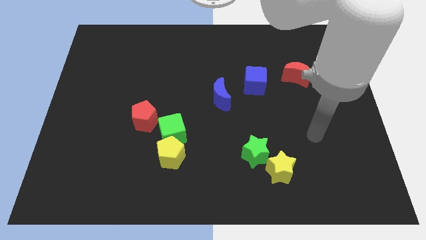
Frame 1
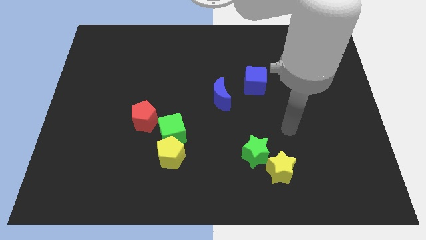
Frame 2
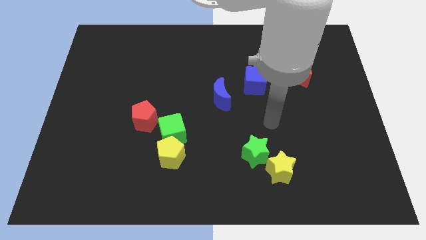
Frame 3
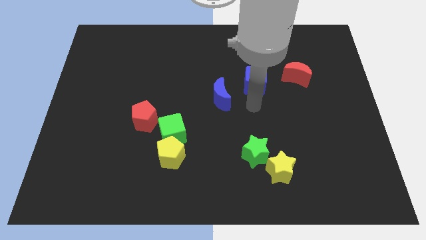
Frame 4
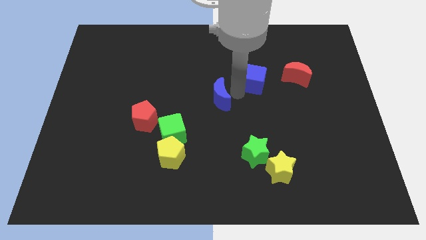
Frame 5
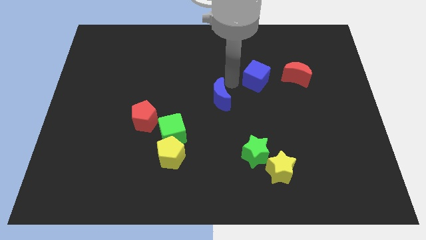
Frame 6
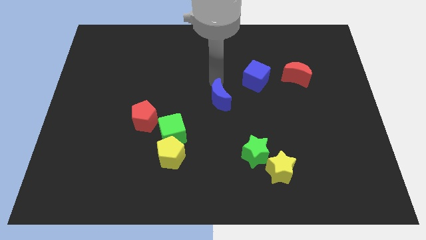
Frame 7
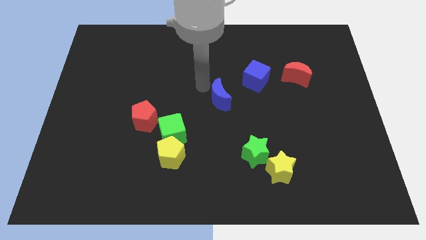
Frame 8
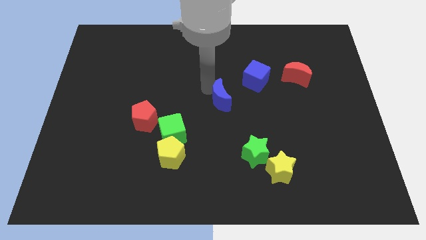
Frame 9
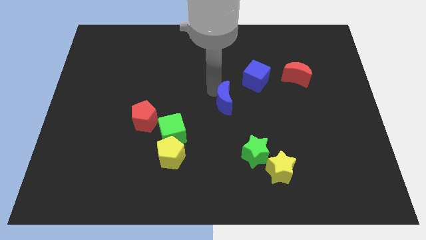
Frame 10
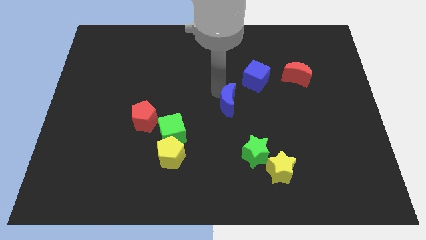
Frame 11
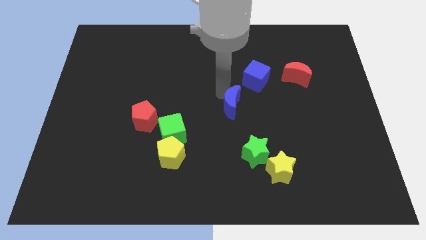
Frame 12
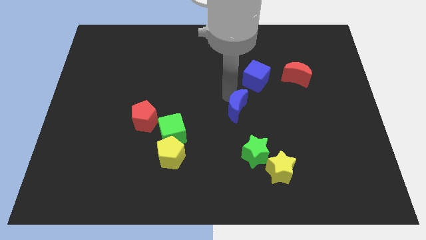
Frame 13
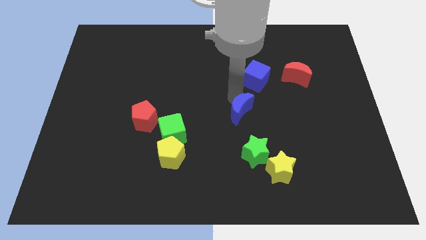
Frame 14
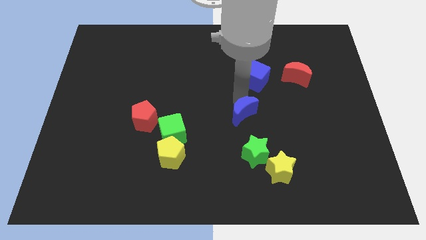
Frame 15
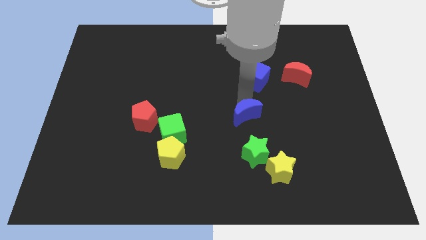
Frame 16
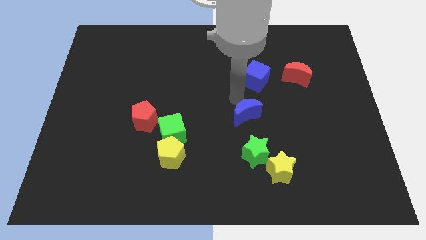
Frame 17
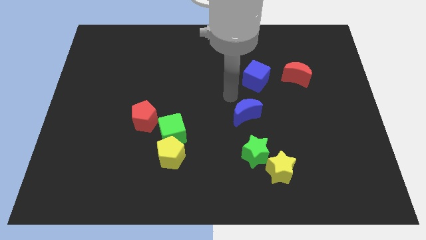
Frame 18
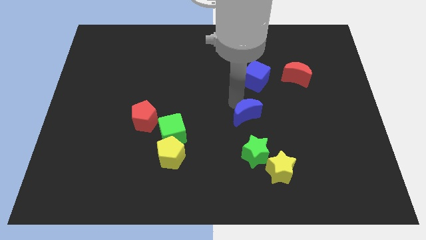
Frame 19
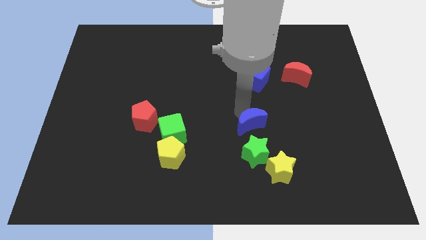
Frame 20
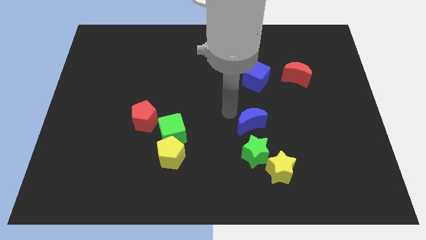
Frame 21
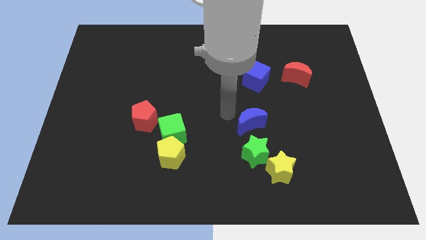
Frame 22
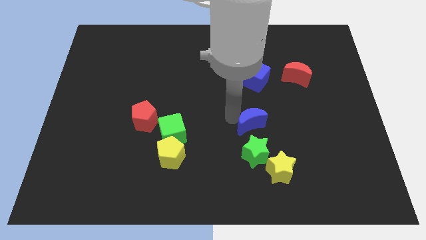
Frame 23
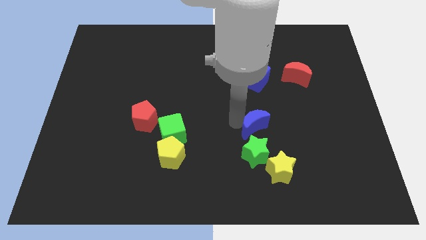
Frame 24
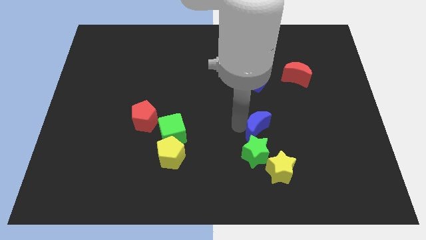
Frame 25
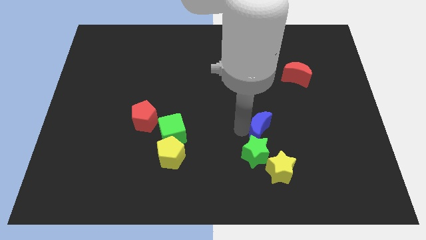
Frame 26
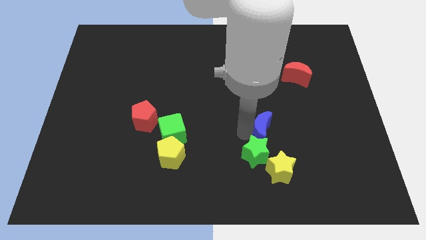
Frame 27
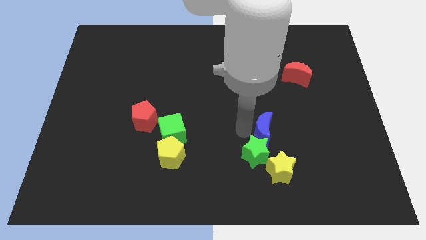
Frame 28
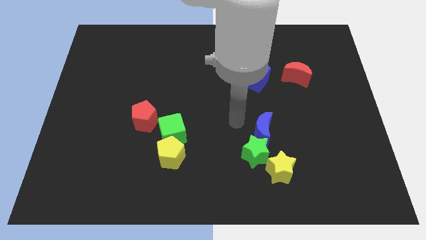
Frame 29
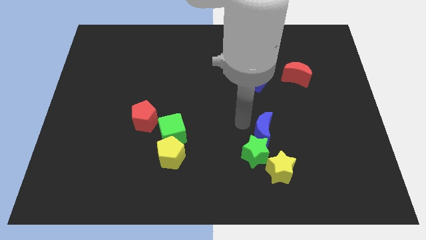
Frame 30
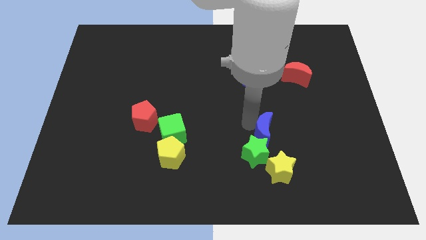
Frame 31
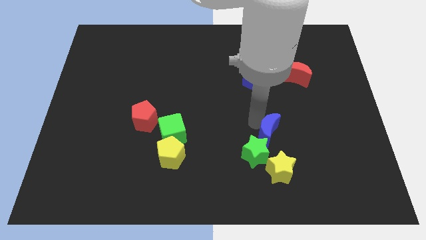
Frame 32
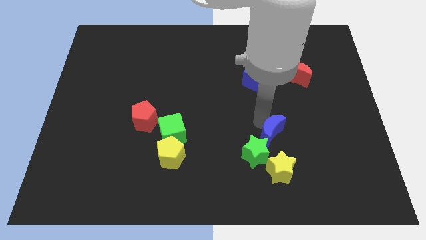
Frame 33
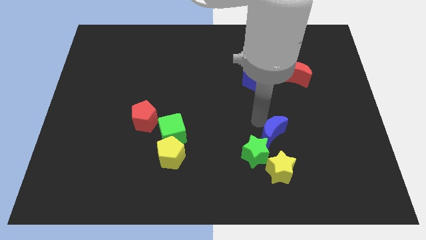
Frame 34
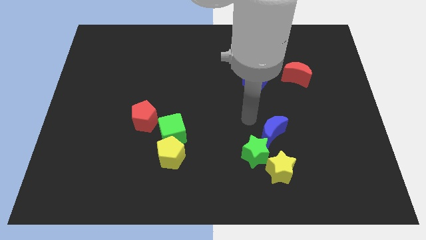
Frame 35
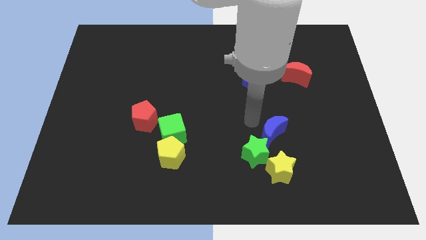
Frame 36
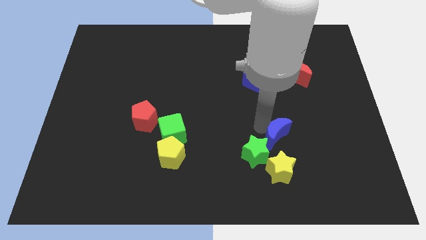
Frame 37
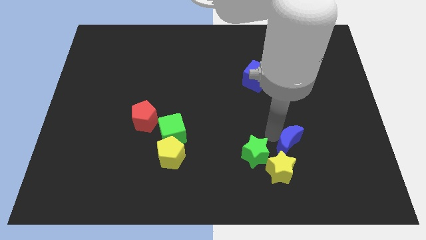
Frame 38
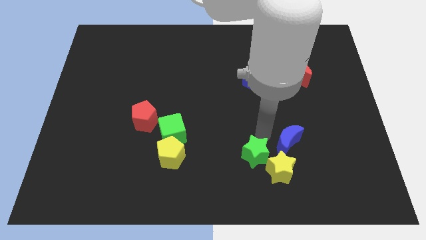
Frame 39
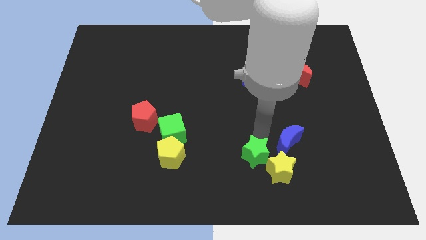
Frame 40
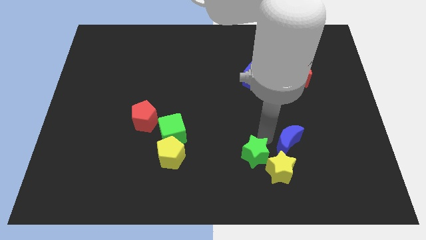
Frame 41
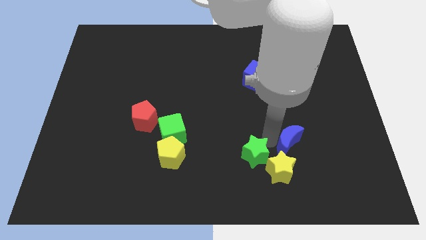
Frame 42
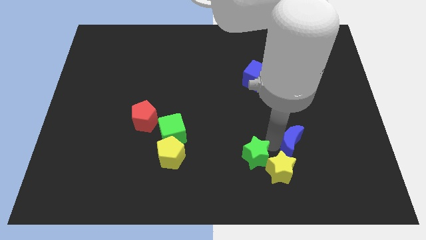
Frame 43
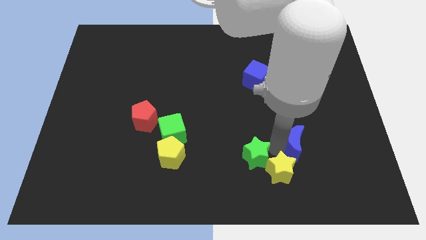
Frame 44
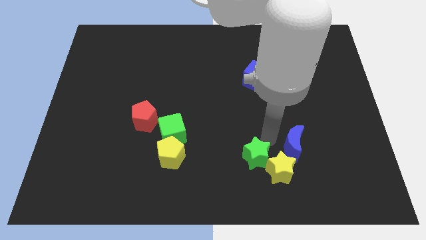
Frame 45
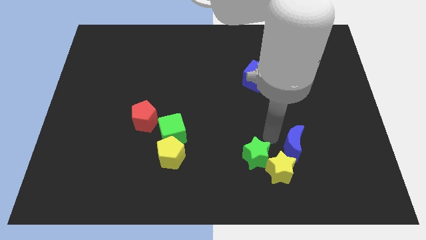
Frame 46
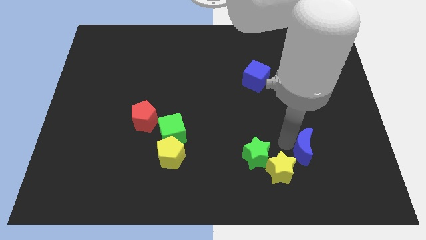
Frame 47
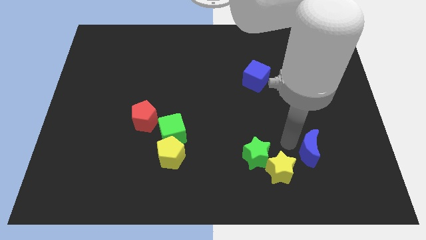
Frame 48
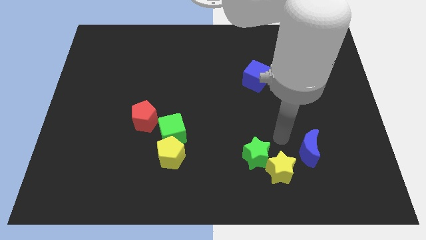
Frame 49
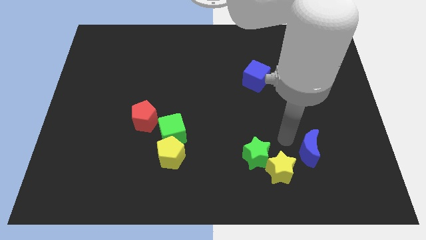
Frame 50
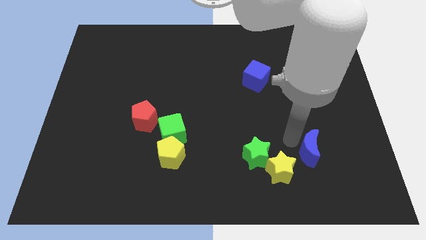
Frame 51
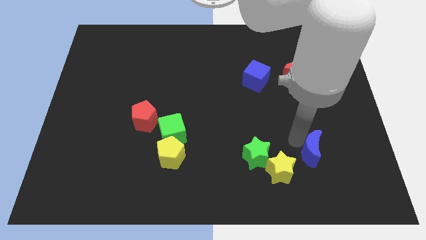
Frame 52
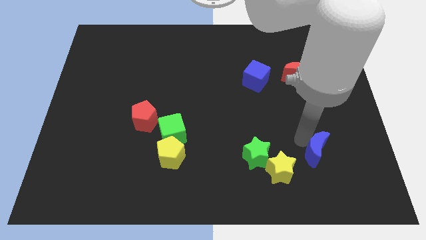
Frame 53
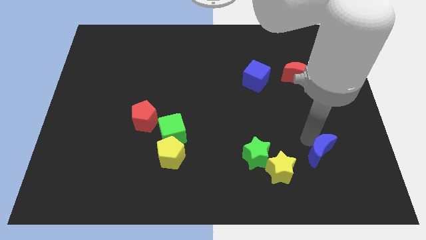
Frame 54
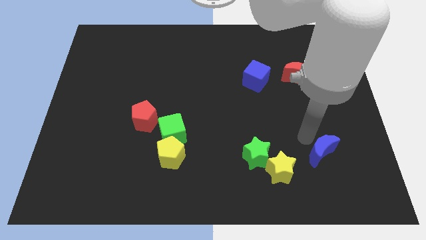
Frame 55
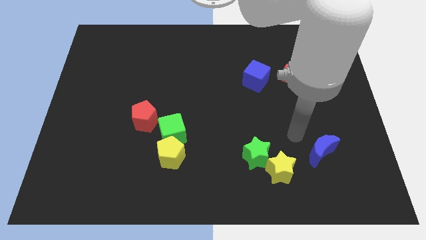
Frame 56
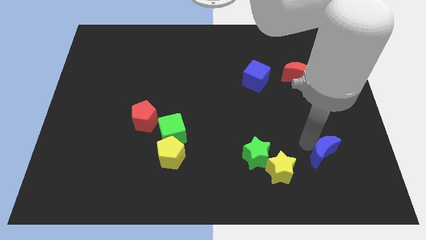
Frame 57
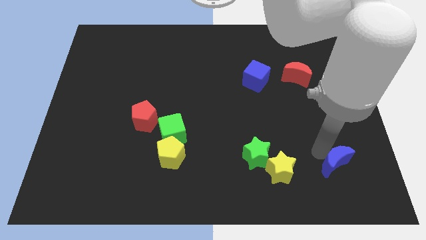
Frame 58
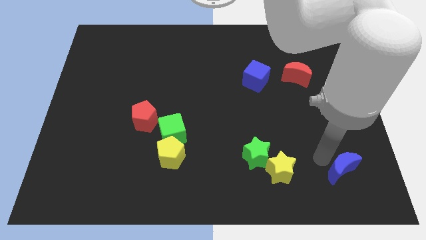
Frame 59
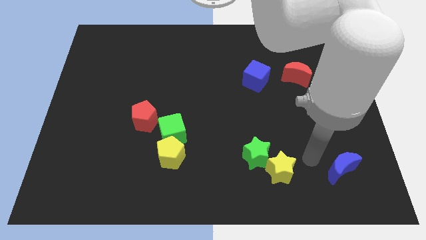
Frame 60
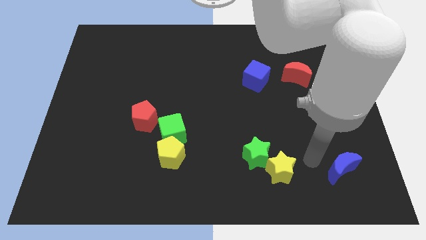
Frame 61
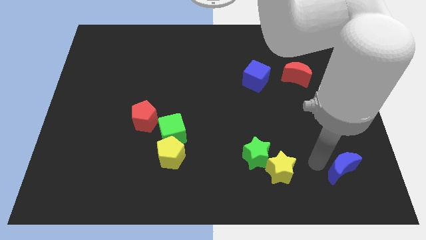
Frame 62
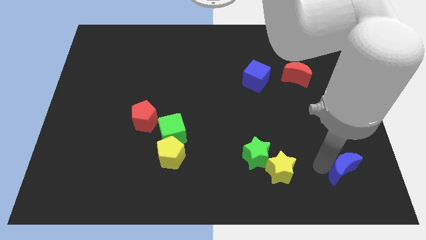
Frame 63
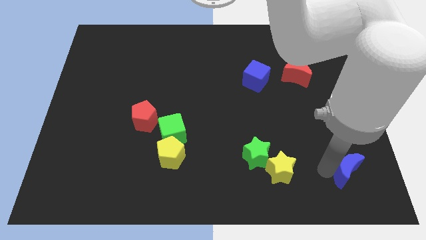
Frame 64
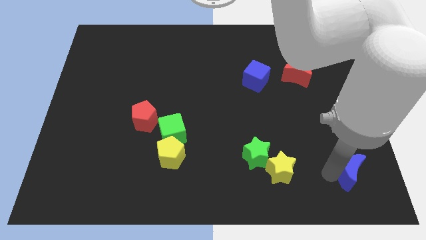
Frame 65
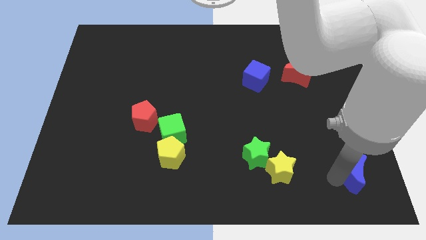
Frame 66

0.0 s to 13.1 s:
put the blue moon to the bottom right corner
